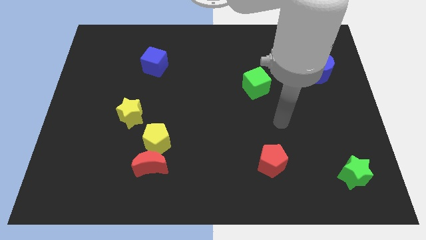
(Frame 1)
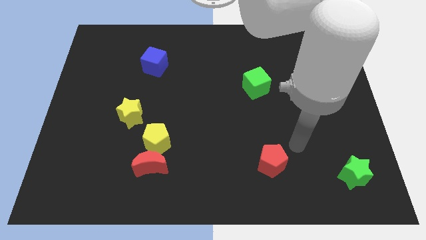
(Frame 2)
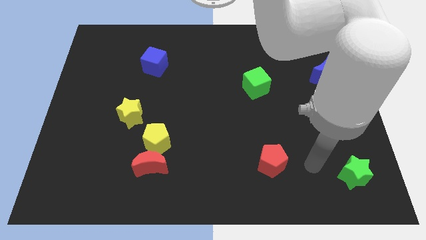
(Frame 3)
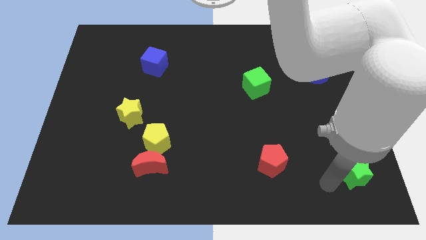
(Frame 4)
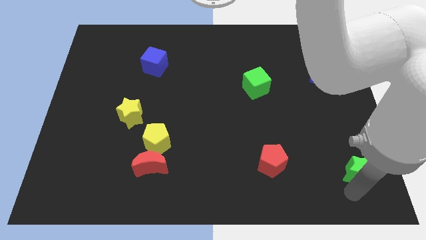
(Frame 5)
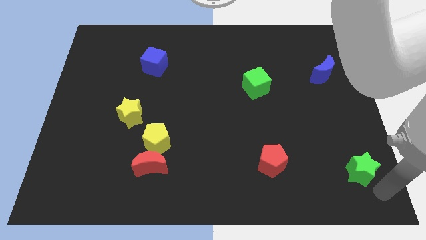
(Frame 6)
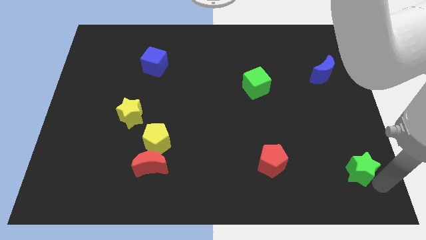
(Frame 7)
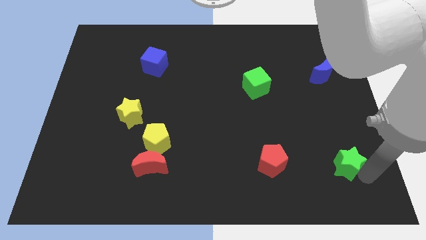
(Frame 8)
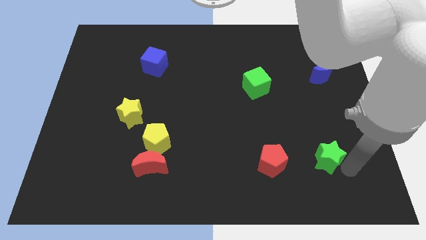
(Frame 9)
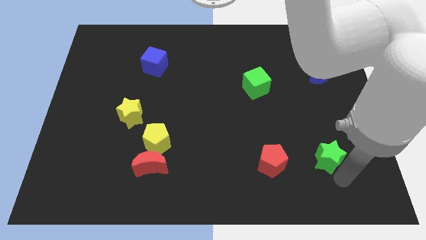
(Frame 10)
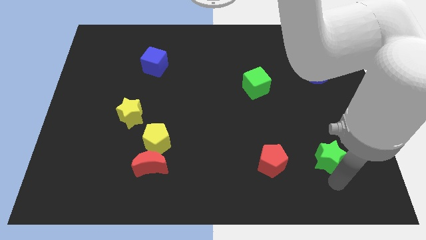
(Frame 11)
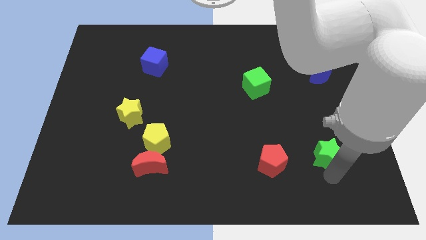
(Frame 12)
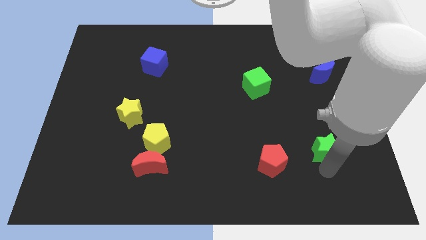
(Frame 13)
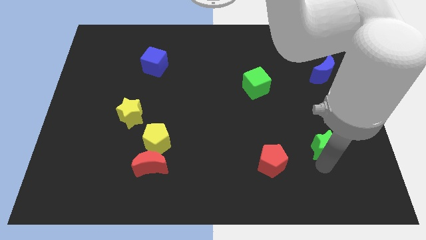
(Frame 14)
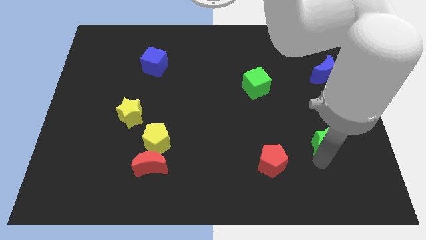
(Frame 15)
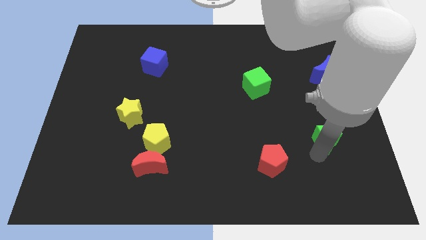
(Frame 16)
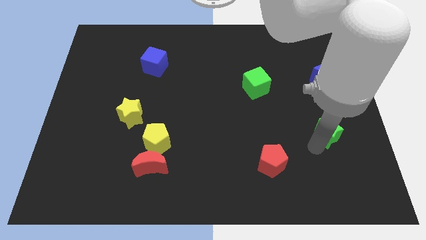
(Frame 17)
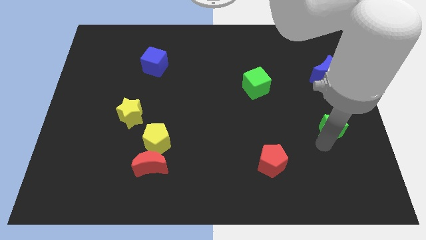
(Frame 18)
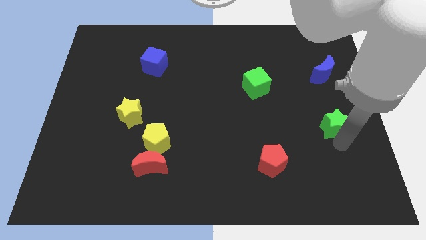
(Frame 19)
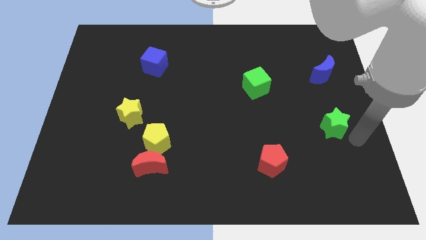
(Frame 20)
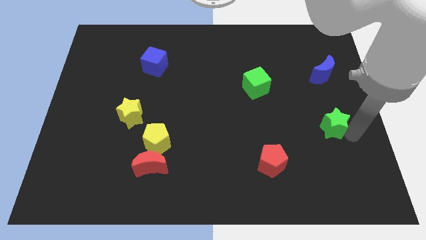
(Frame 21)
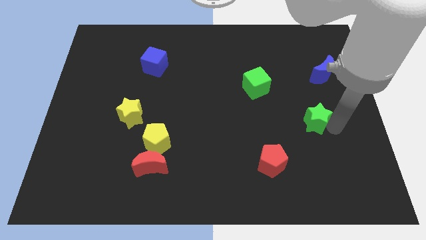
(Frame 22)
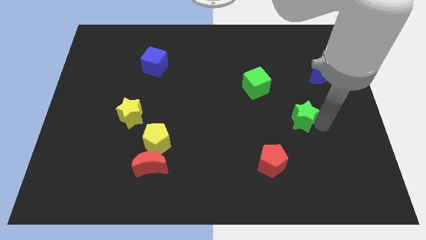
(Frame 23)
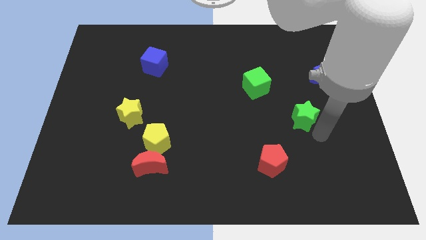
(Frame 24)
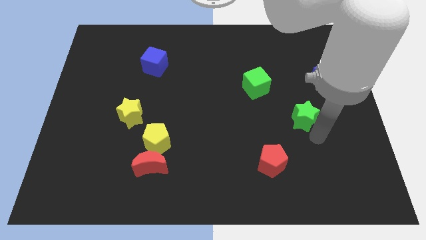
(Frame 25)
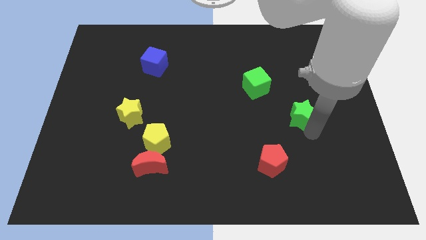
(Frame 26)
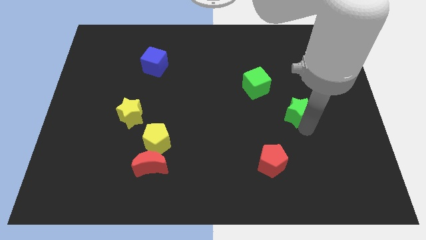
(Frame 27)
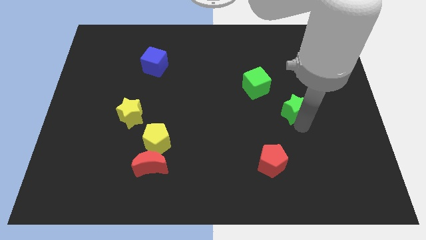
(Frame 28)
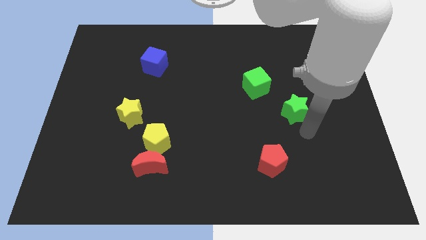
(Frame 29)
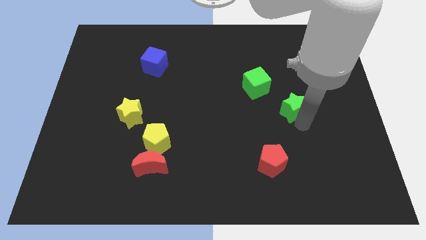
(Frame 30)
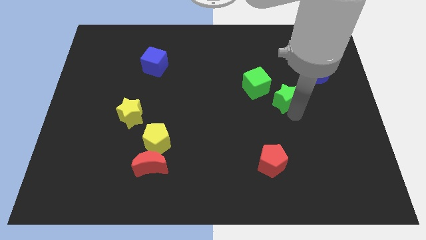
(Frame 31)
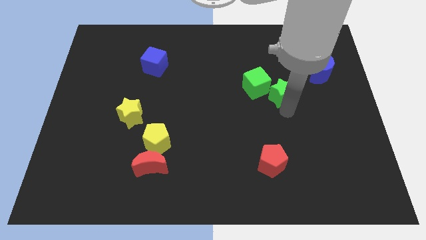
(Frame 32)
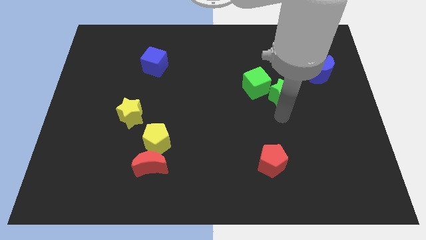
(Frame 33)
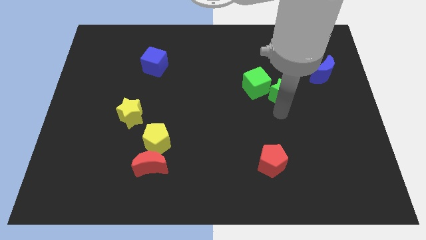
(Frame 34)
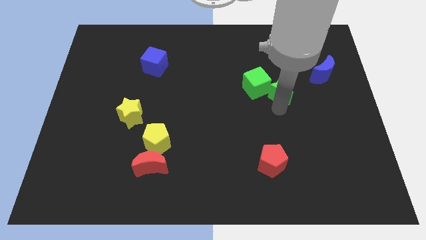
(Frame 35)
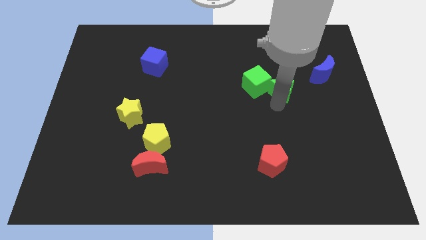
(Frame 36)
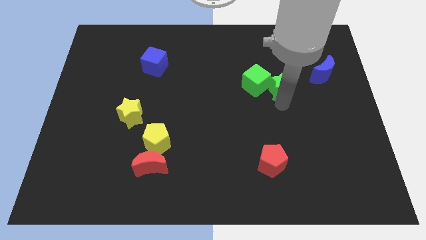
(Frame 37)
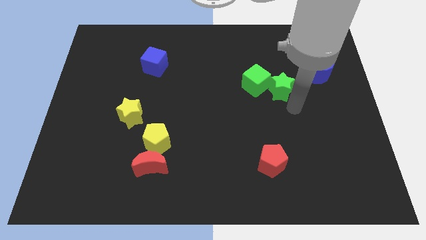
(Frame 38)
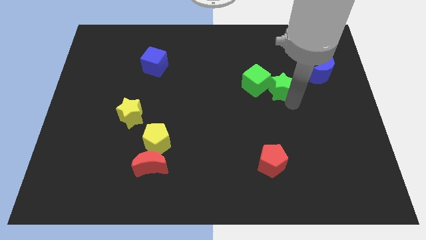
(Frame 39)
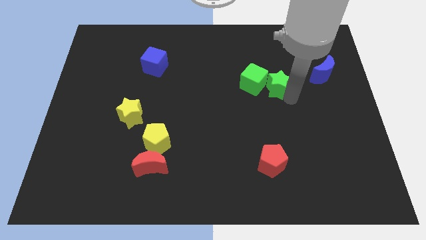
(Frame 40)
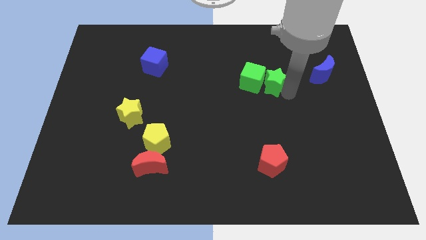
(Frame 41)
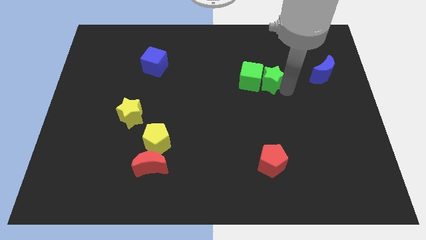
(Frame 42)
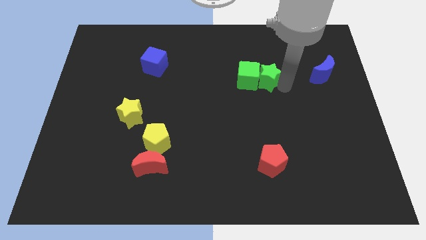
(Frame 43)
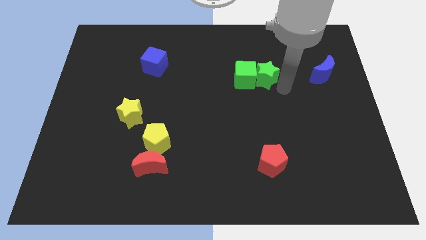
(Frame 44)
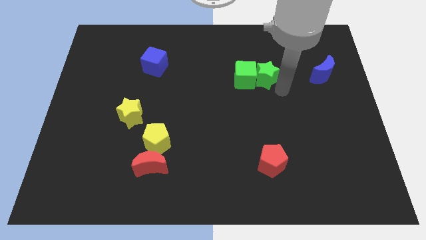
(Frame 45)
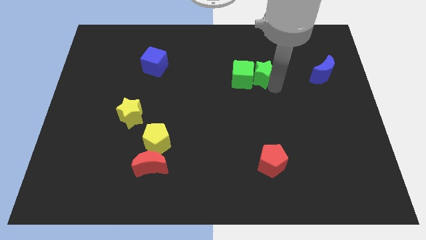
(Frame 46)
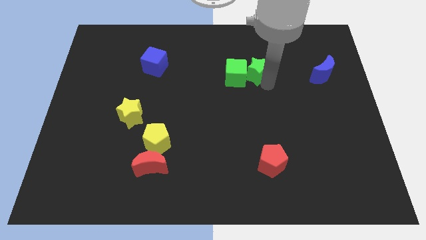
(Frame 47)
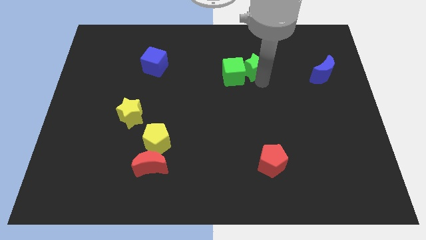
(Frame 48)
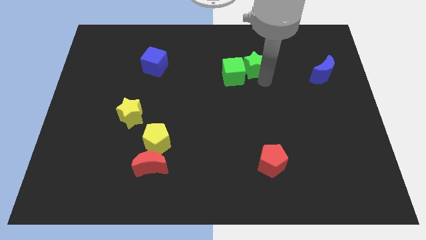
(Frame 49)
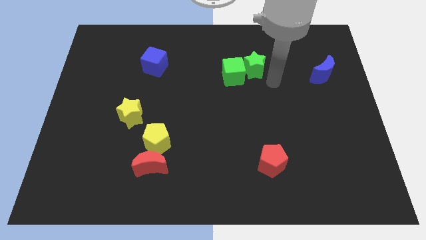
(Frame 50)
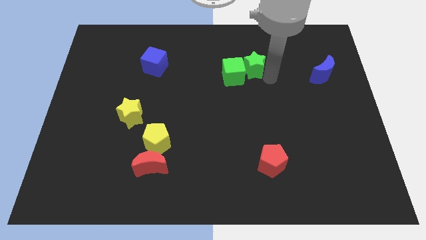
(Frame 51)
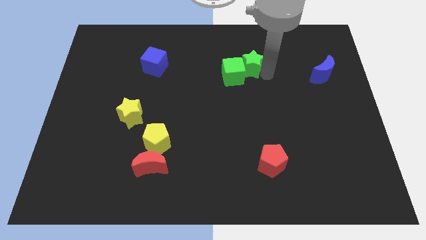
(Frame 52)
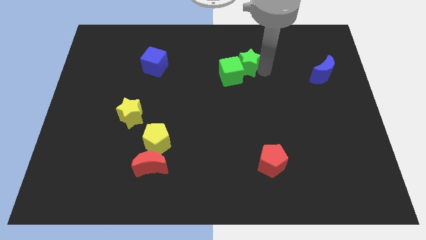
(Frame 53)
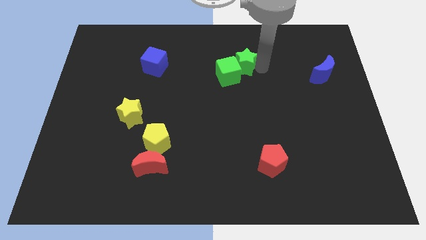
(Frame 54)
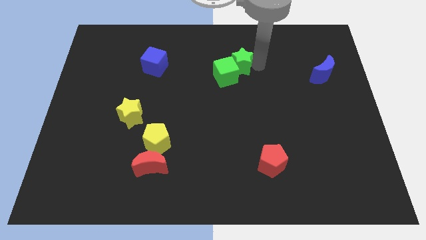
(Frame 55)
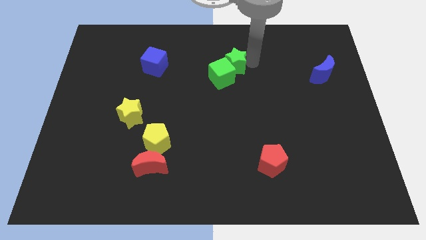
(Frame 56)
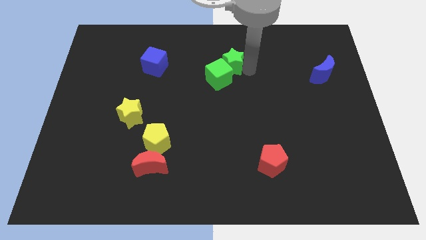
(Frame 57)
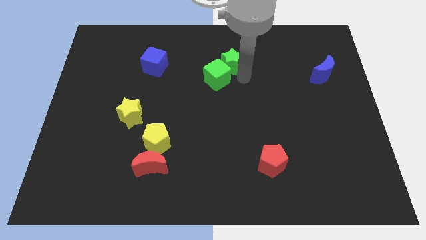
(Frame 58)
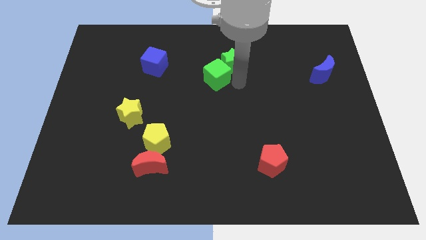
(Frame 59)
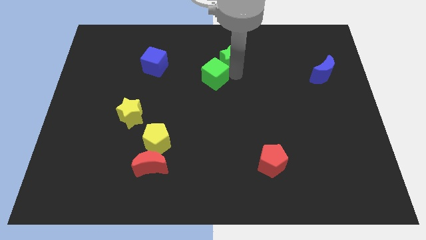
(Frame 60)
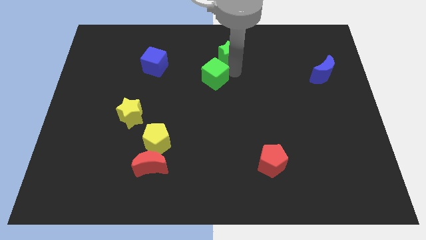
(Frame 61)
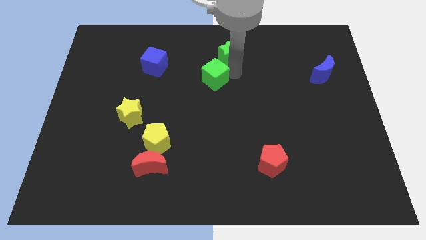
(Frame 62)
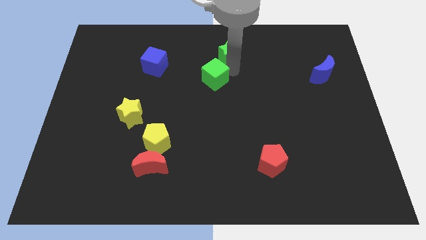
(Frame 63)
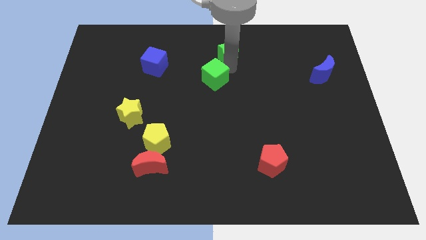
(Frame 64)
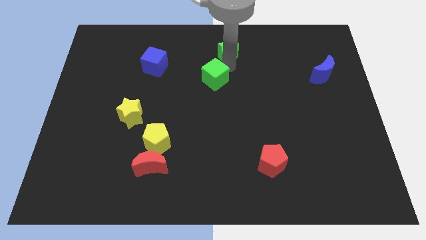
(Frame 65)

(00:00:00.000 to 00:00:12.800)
move the green star to the top

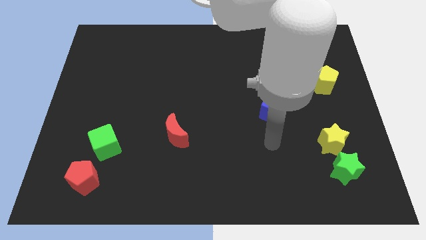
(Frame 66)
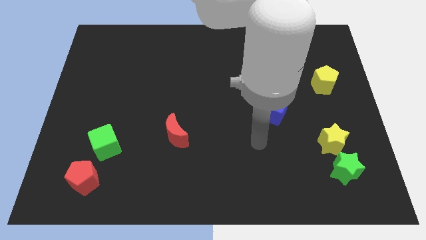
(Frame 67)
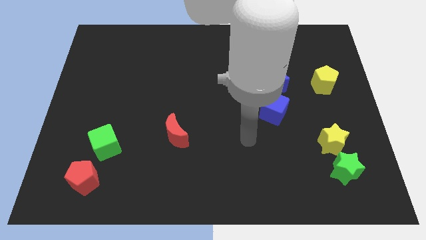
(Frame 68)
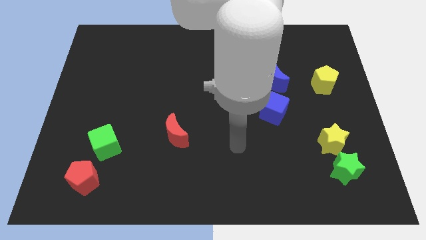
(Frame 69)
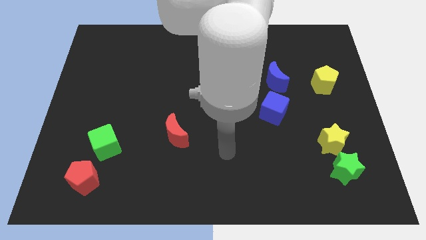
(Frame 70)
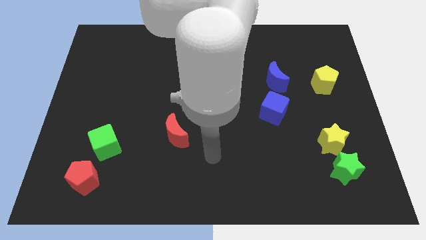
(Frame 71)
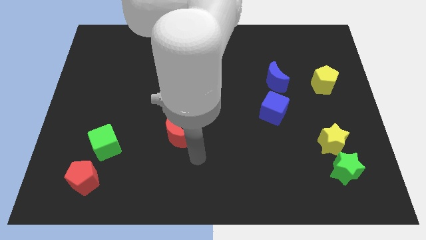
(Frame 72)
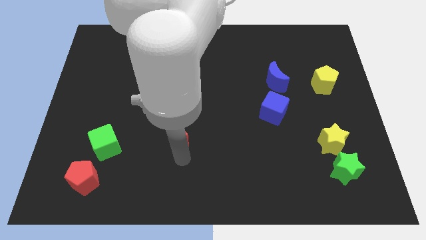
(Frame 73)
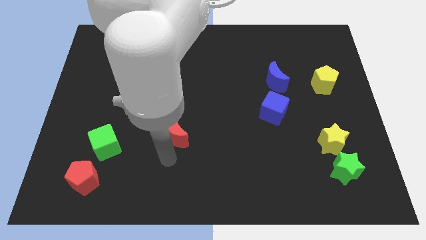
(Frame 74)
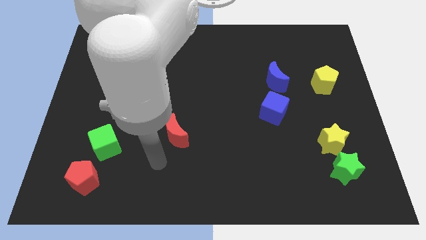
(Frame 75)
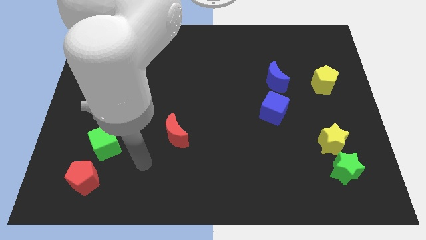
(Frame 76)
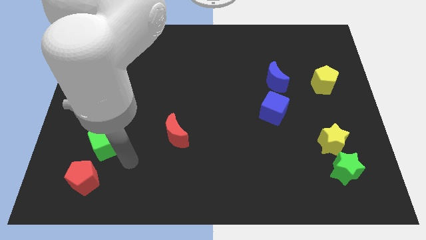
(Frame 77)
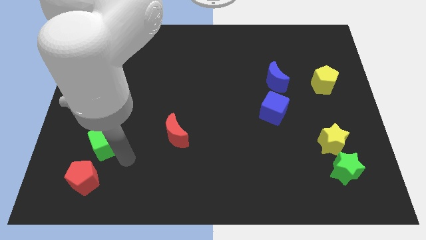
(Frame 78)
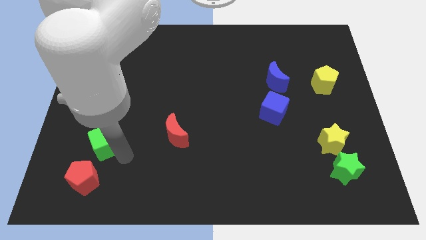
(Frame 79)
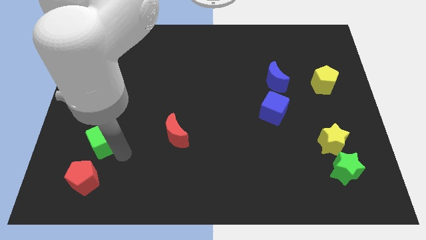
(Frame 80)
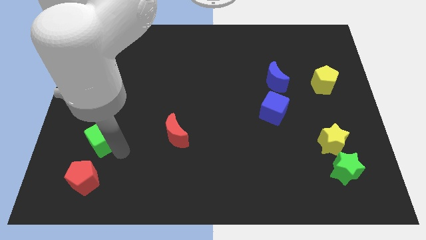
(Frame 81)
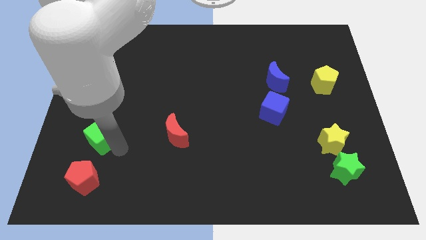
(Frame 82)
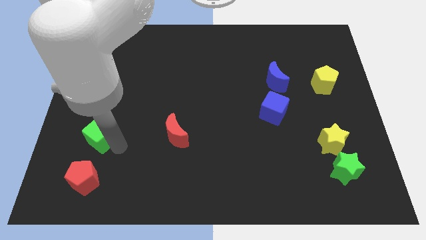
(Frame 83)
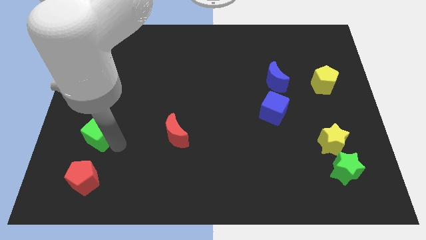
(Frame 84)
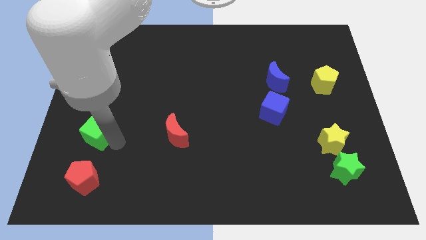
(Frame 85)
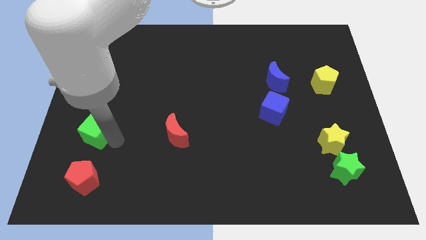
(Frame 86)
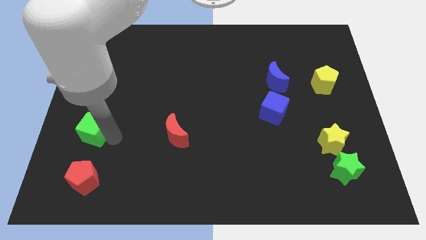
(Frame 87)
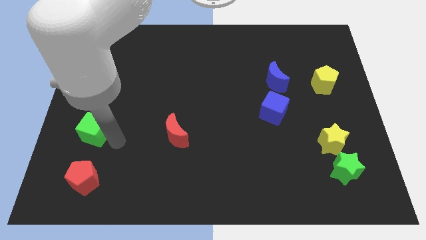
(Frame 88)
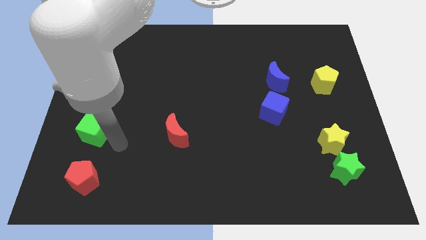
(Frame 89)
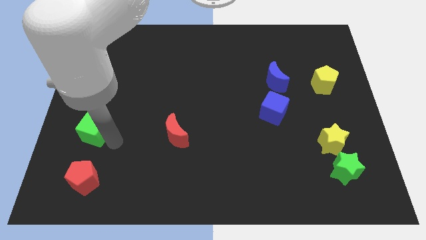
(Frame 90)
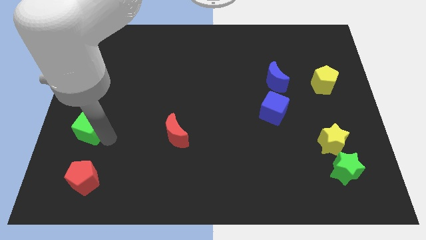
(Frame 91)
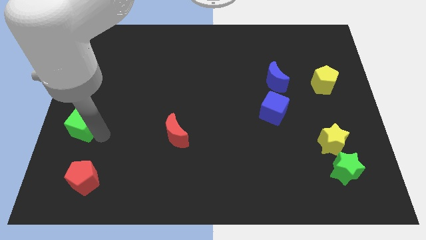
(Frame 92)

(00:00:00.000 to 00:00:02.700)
put the green cube to the left side of the board
